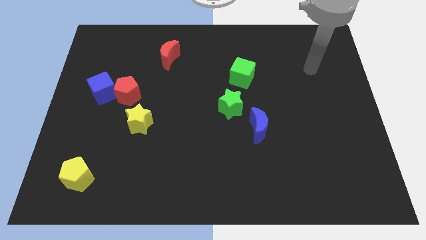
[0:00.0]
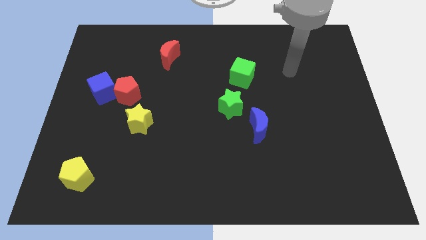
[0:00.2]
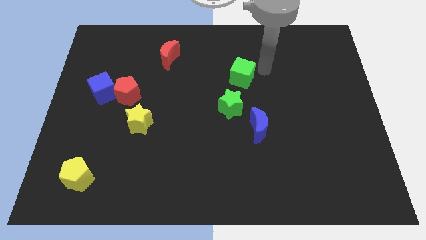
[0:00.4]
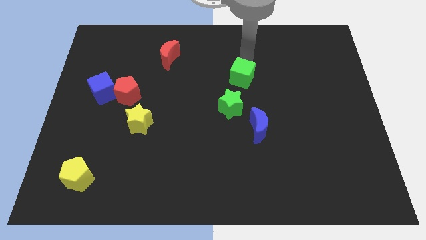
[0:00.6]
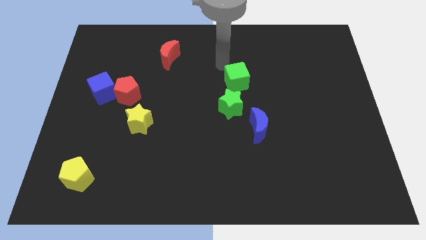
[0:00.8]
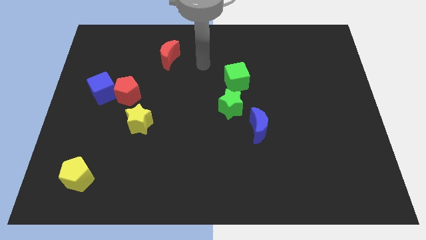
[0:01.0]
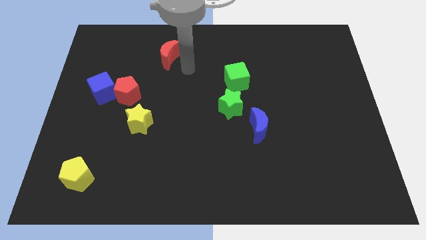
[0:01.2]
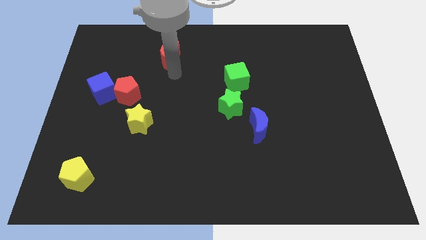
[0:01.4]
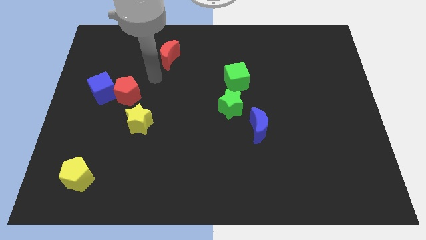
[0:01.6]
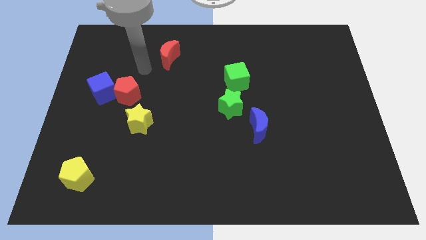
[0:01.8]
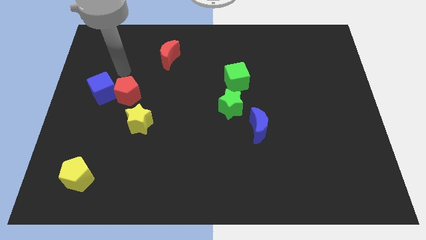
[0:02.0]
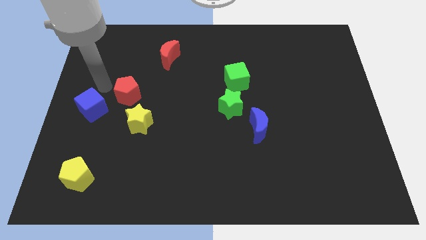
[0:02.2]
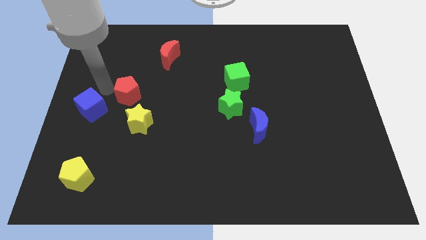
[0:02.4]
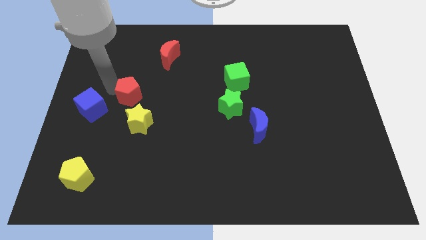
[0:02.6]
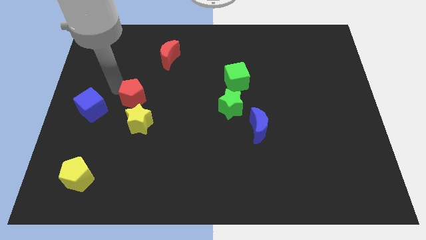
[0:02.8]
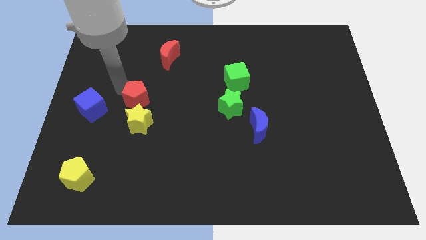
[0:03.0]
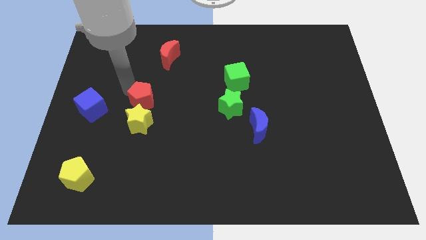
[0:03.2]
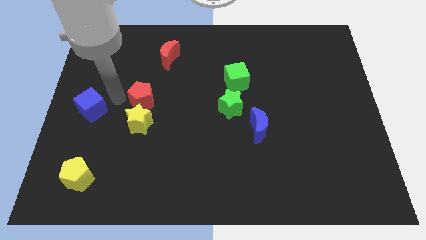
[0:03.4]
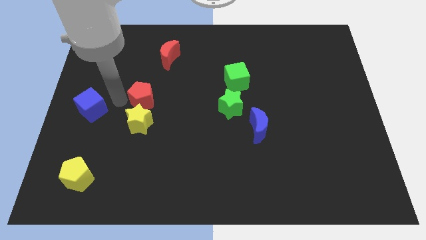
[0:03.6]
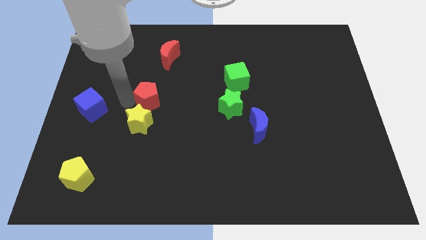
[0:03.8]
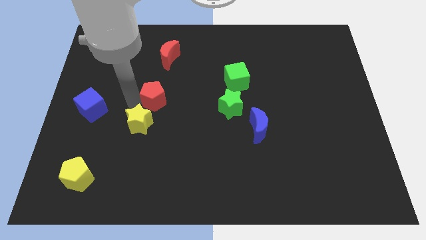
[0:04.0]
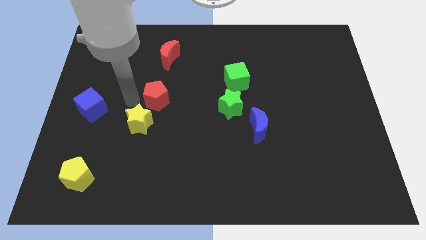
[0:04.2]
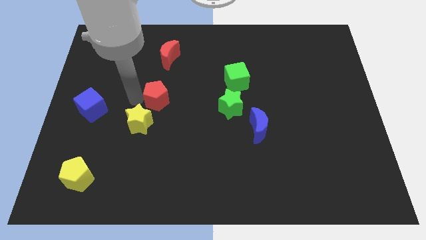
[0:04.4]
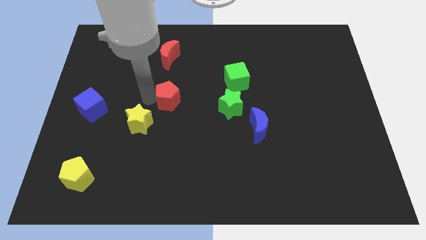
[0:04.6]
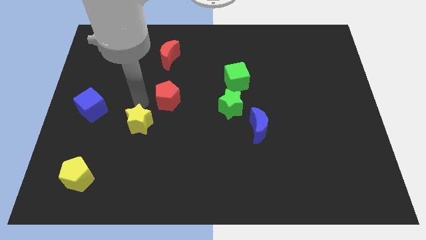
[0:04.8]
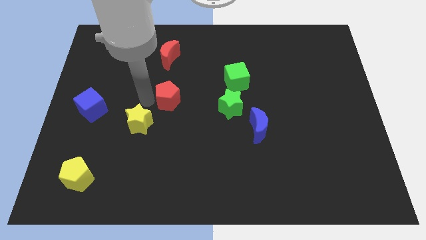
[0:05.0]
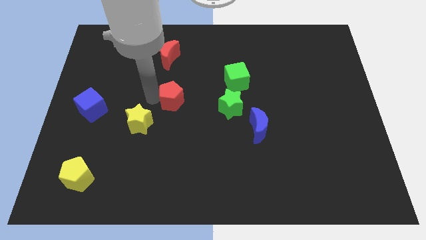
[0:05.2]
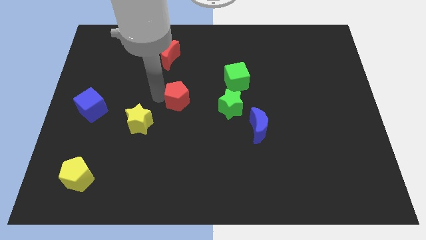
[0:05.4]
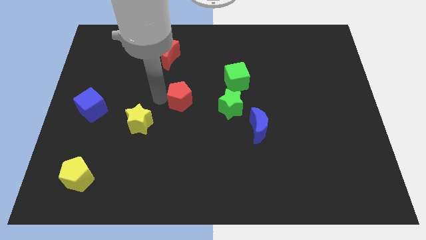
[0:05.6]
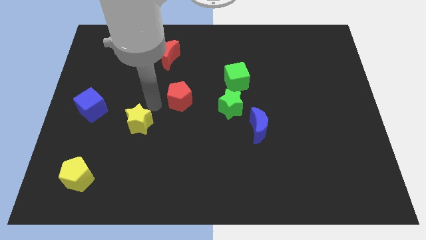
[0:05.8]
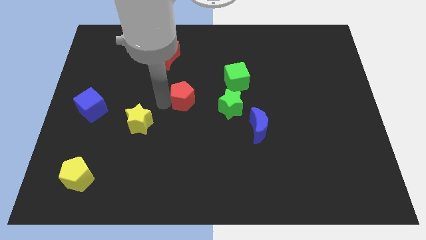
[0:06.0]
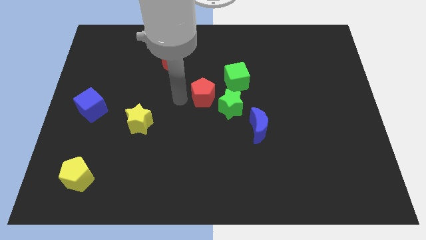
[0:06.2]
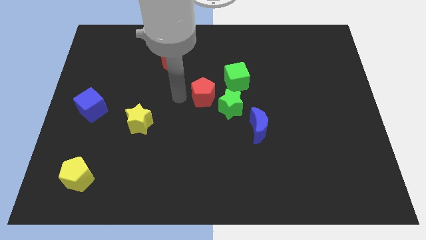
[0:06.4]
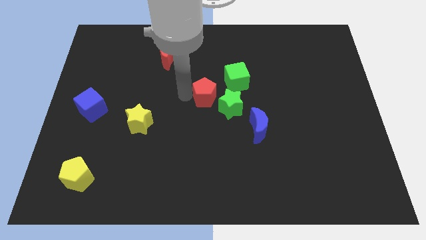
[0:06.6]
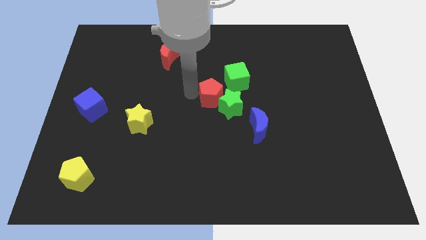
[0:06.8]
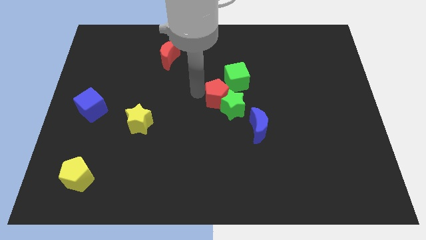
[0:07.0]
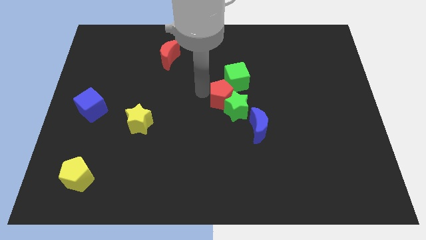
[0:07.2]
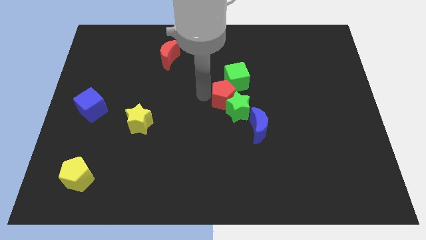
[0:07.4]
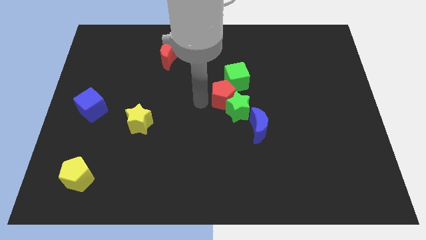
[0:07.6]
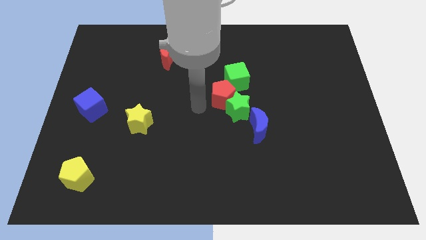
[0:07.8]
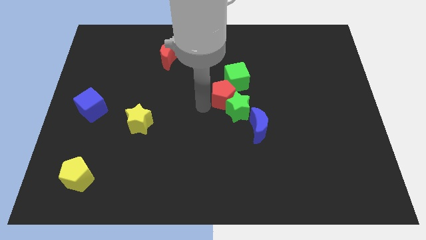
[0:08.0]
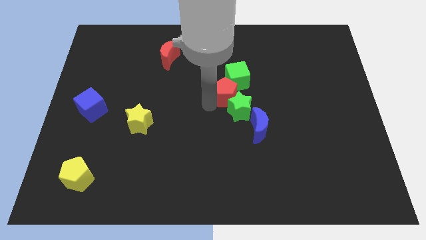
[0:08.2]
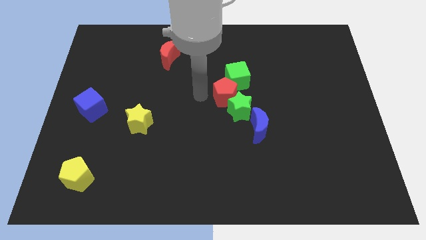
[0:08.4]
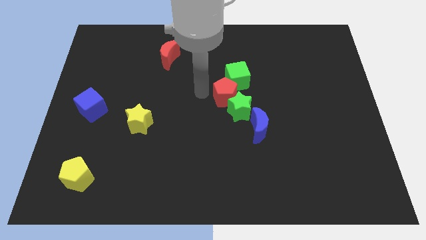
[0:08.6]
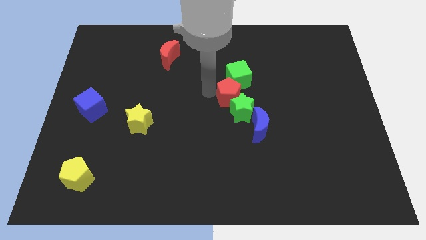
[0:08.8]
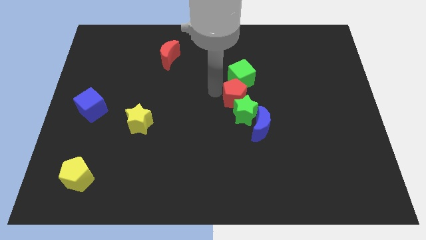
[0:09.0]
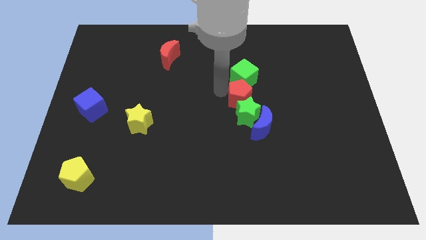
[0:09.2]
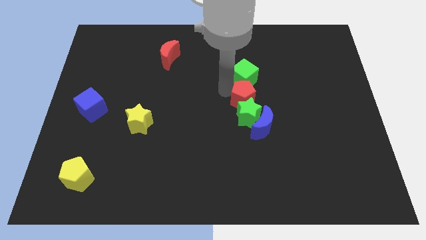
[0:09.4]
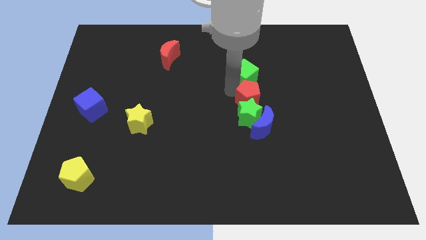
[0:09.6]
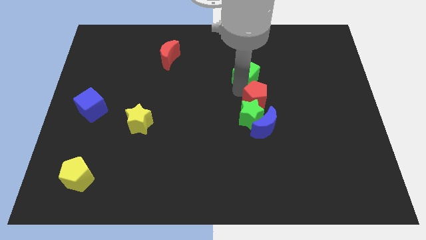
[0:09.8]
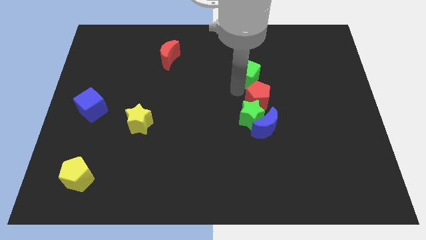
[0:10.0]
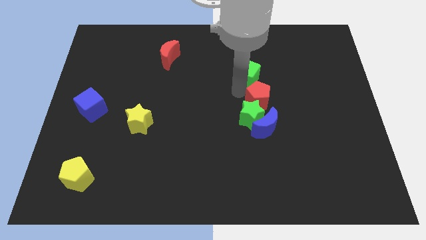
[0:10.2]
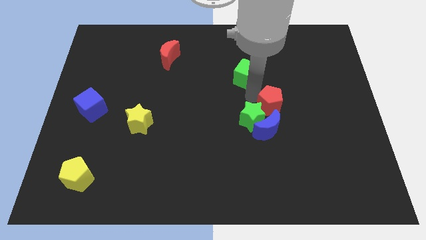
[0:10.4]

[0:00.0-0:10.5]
push the red pentagon to the top right side of the blue moon

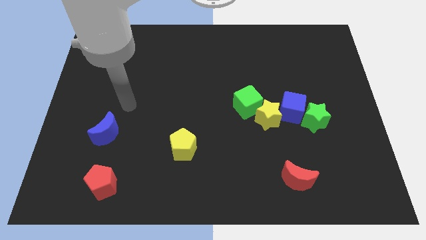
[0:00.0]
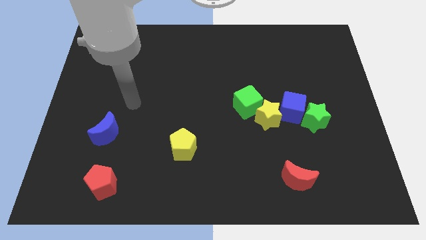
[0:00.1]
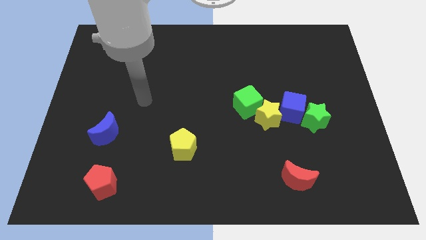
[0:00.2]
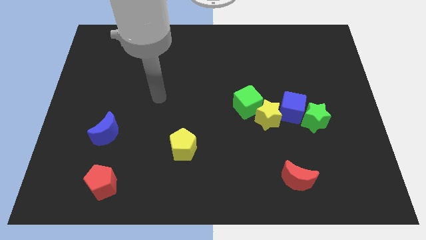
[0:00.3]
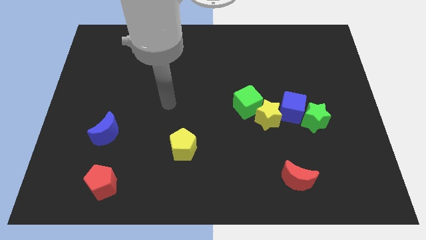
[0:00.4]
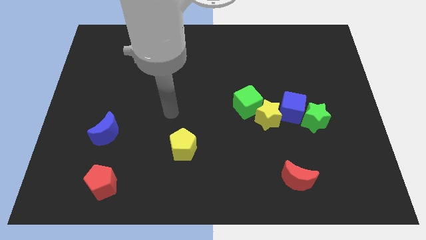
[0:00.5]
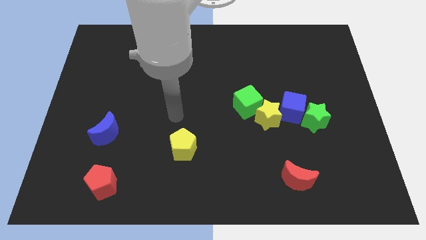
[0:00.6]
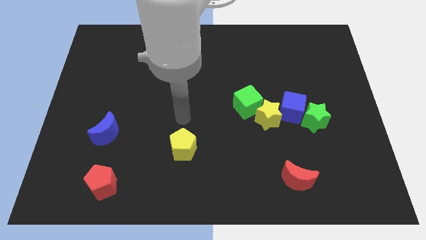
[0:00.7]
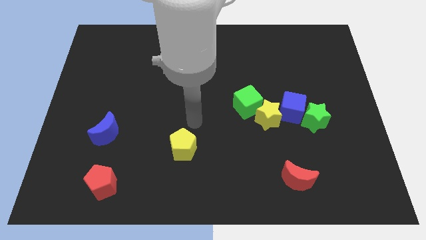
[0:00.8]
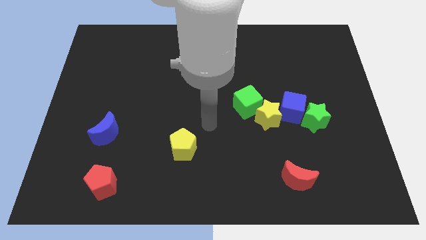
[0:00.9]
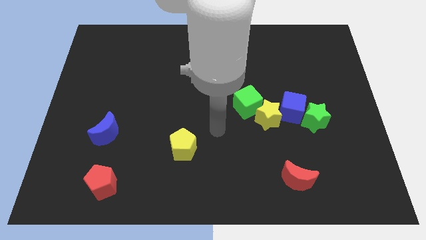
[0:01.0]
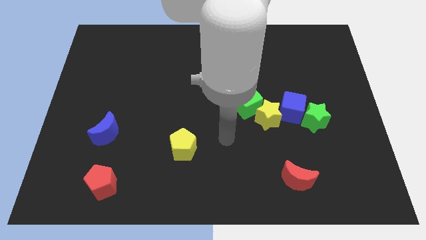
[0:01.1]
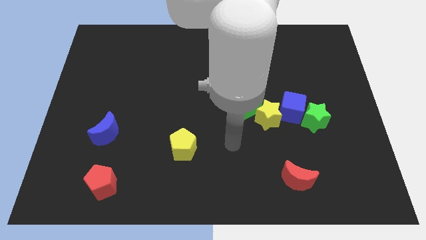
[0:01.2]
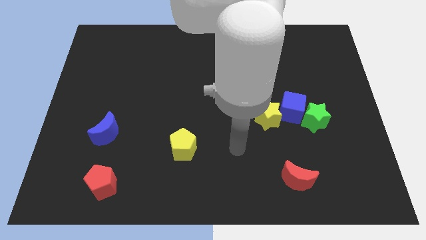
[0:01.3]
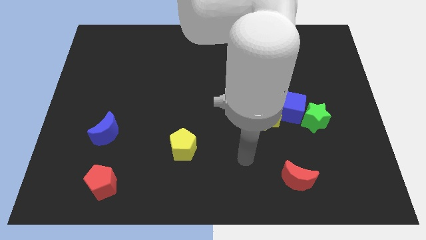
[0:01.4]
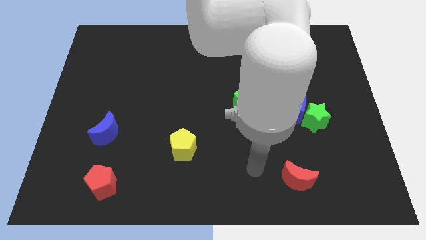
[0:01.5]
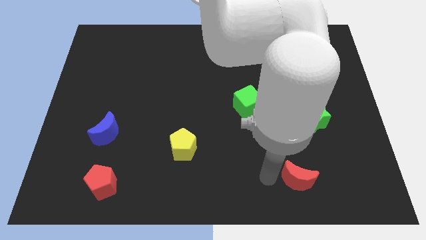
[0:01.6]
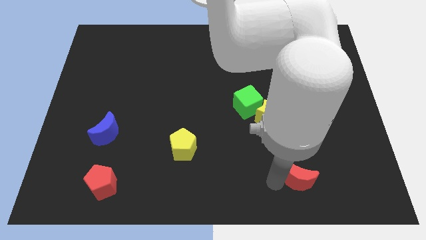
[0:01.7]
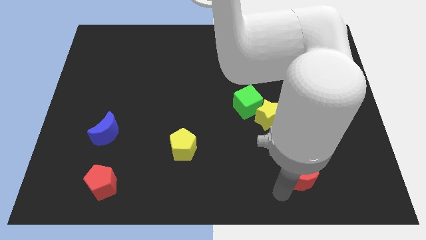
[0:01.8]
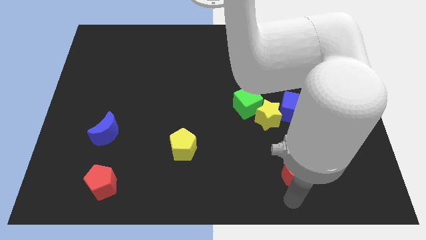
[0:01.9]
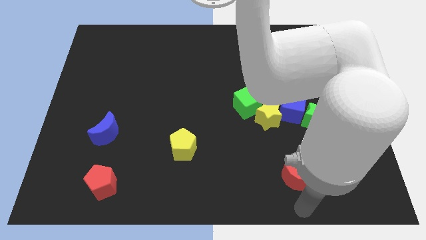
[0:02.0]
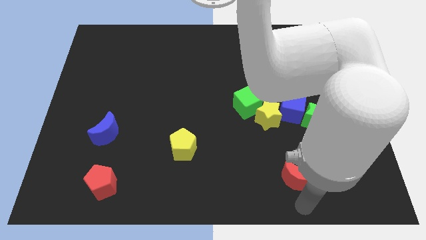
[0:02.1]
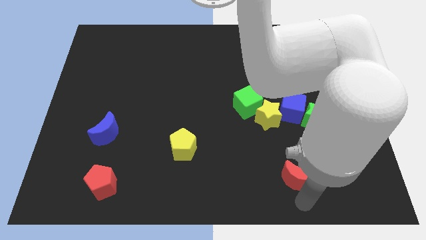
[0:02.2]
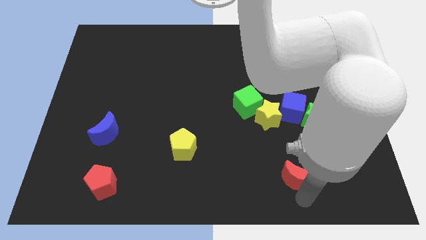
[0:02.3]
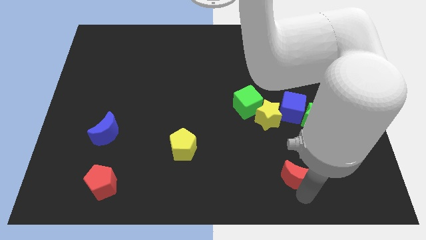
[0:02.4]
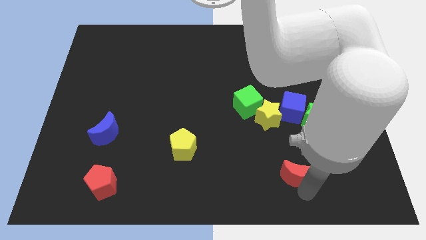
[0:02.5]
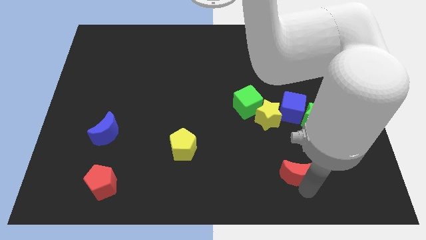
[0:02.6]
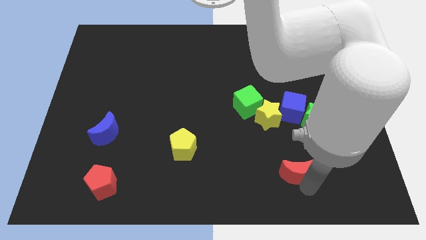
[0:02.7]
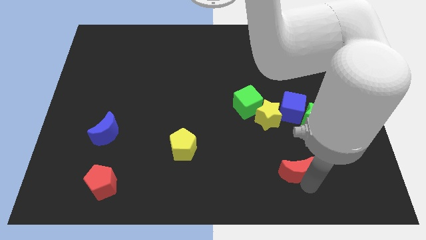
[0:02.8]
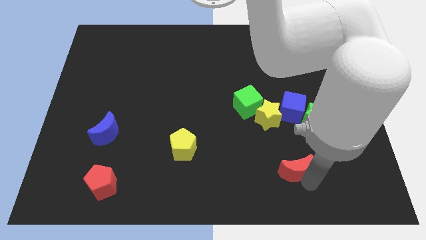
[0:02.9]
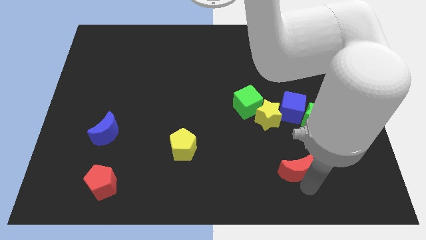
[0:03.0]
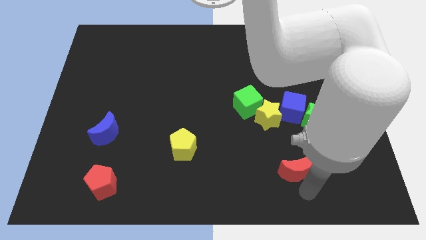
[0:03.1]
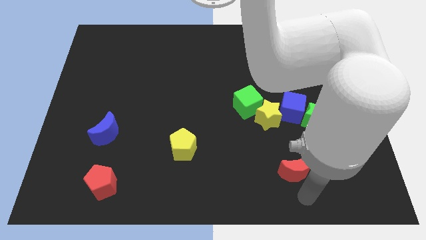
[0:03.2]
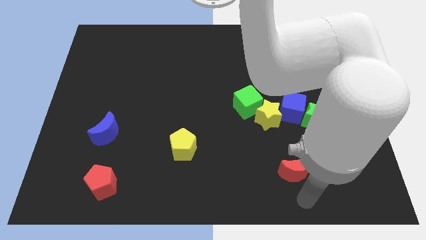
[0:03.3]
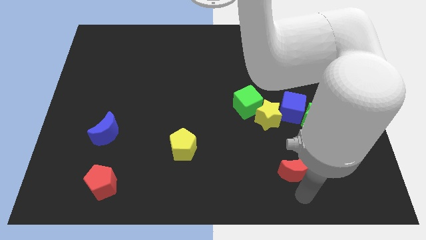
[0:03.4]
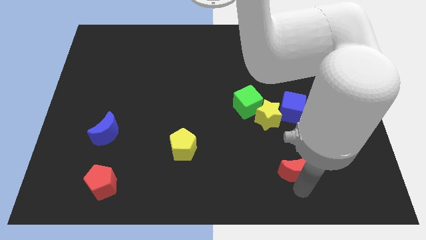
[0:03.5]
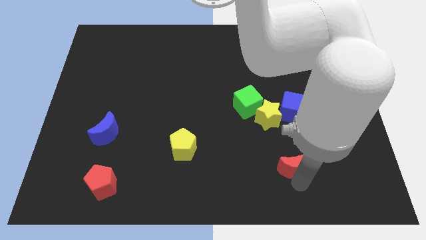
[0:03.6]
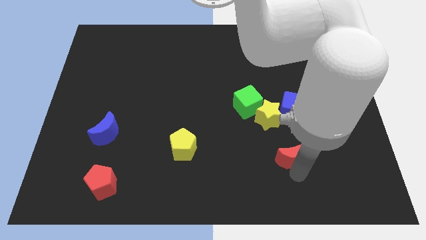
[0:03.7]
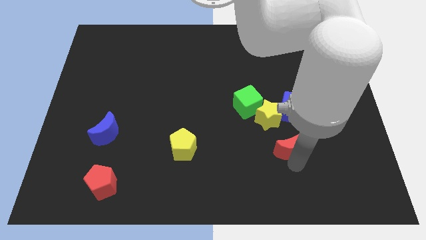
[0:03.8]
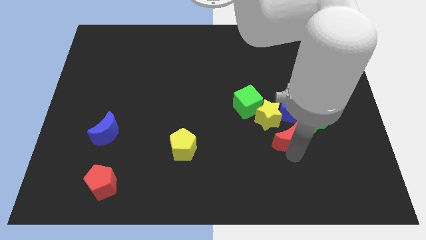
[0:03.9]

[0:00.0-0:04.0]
slide the red moon diagonally down and to the right of the green cube
